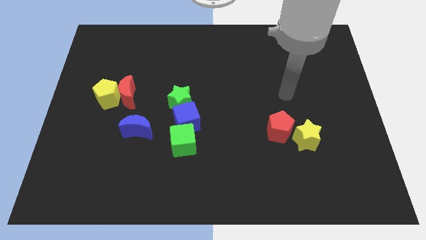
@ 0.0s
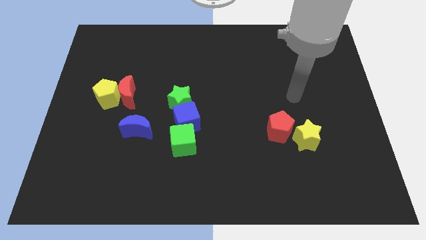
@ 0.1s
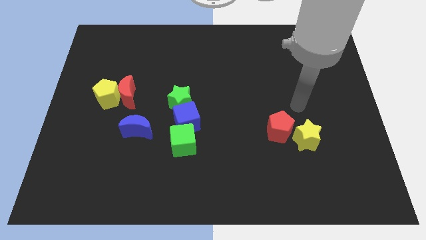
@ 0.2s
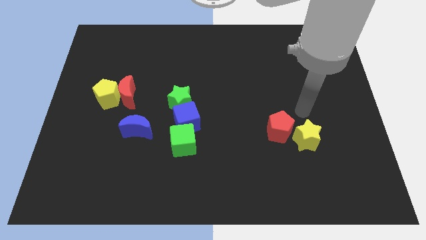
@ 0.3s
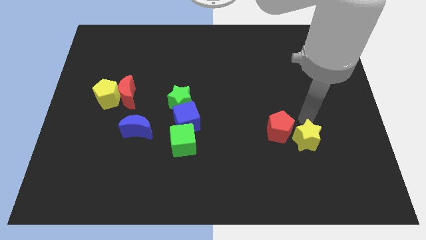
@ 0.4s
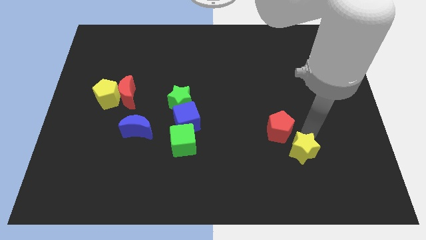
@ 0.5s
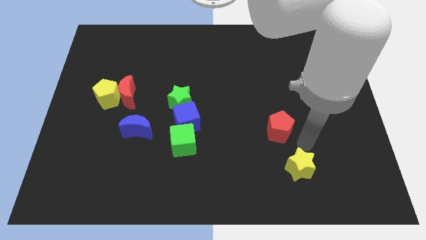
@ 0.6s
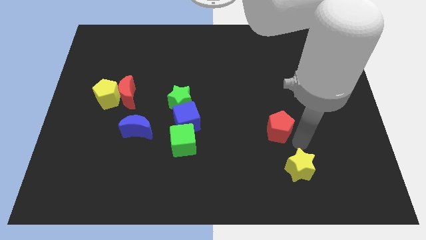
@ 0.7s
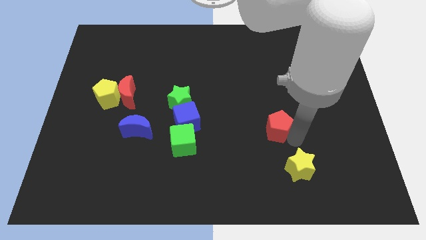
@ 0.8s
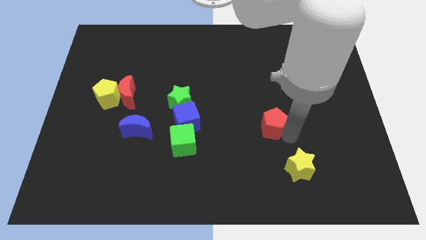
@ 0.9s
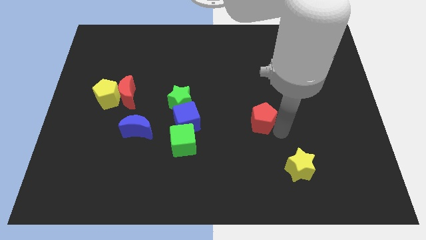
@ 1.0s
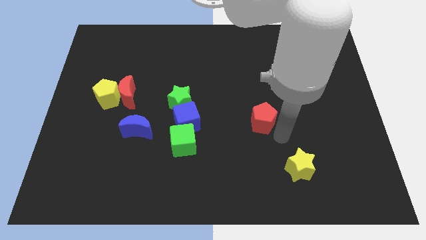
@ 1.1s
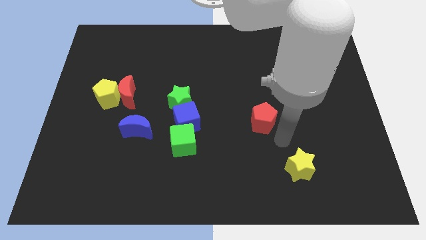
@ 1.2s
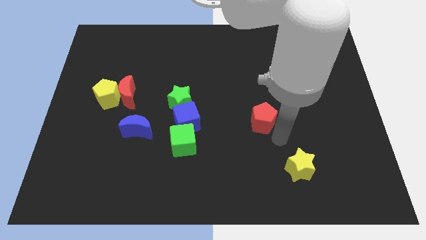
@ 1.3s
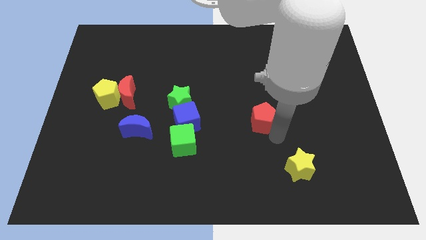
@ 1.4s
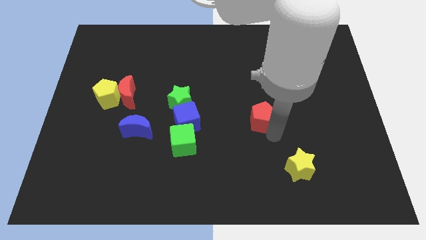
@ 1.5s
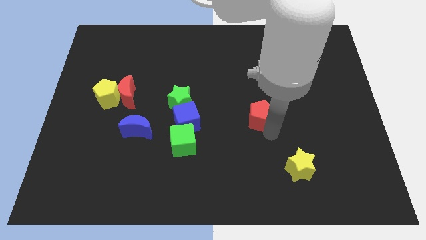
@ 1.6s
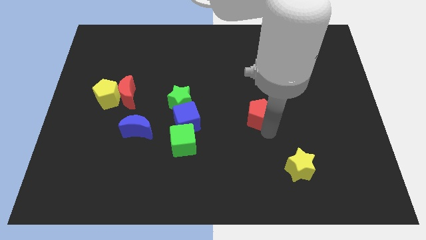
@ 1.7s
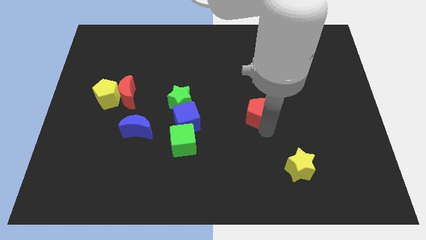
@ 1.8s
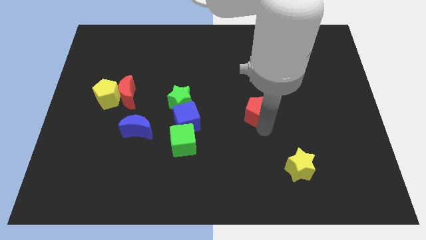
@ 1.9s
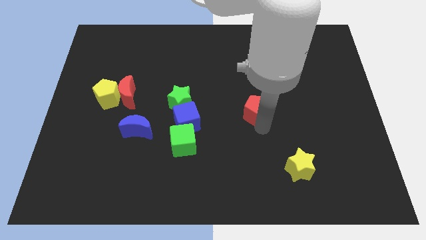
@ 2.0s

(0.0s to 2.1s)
slightly push the red pentagon diagonally up and to the left

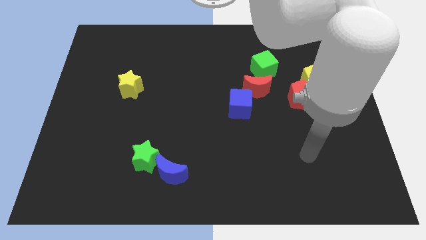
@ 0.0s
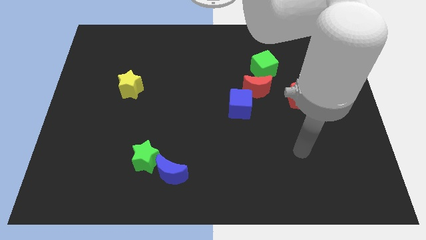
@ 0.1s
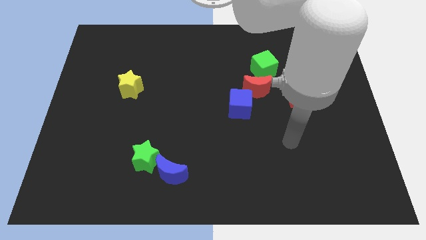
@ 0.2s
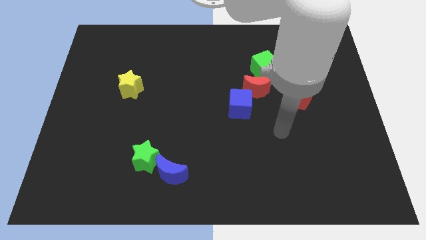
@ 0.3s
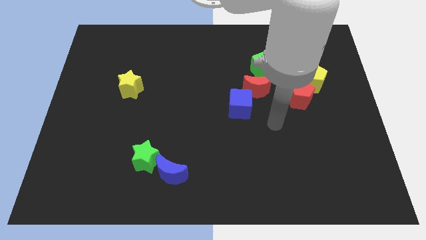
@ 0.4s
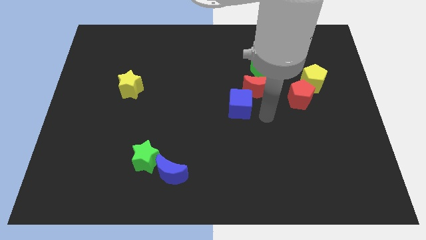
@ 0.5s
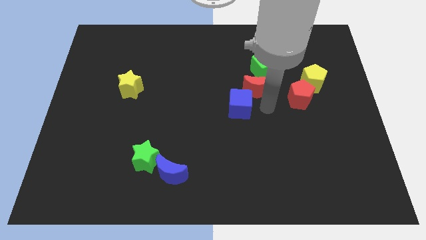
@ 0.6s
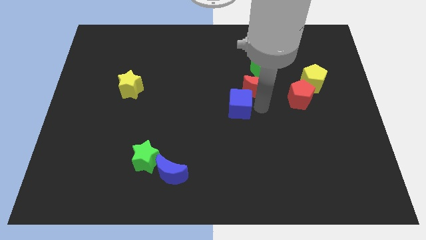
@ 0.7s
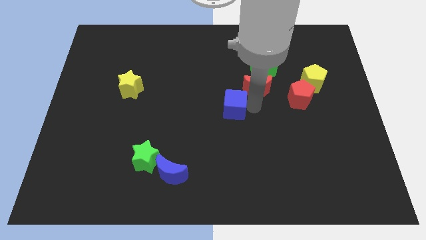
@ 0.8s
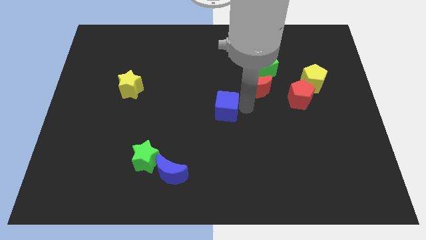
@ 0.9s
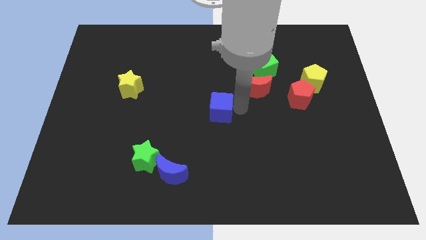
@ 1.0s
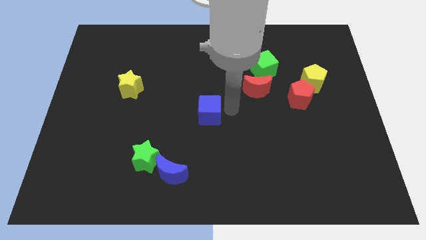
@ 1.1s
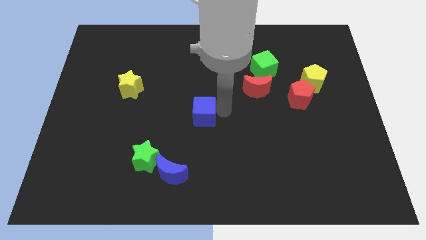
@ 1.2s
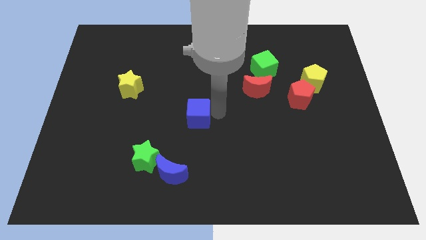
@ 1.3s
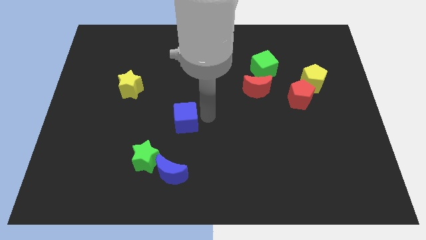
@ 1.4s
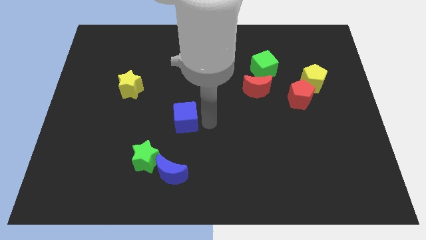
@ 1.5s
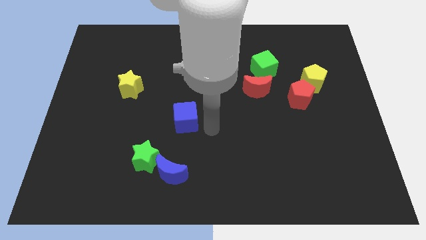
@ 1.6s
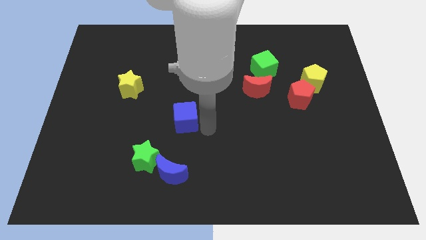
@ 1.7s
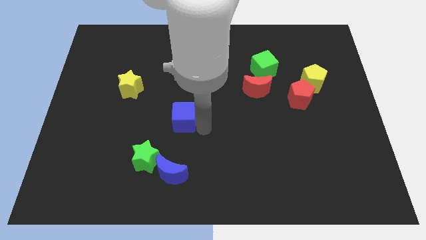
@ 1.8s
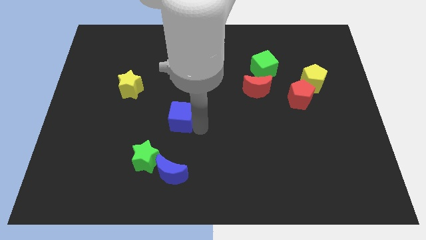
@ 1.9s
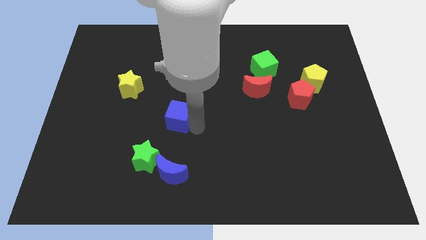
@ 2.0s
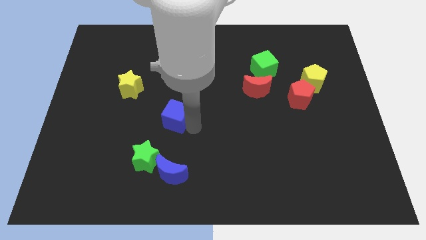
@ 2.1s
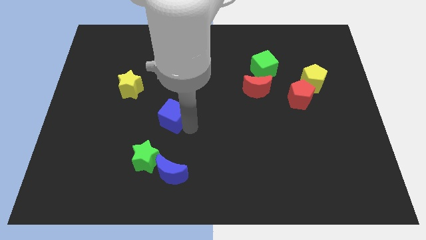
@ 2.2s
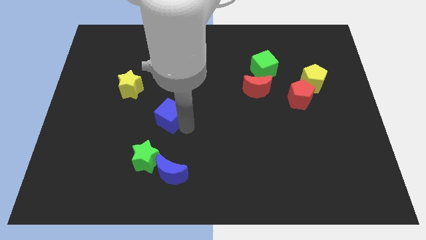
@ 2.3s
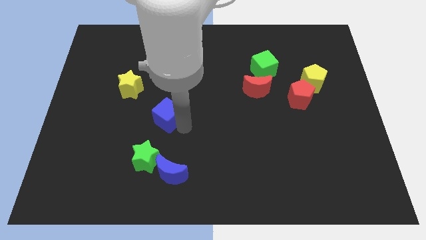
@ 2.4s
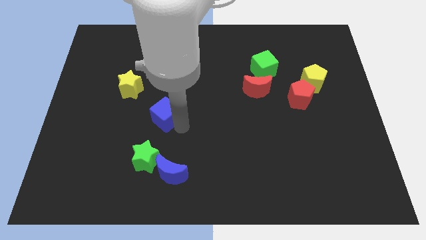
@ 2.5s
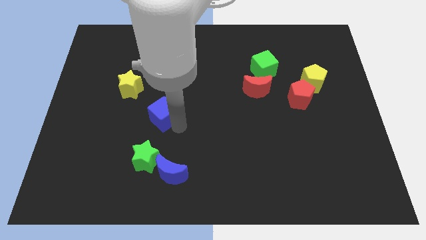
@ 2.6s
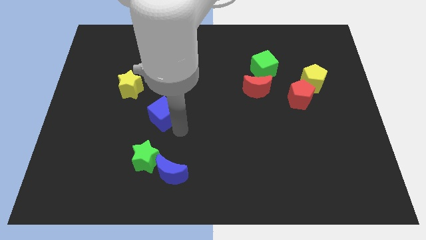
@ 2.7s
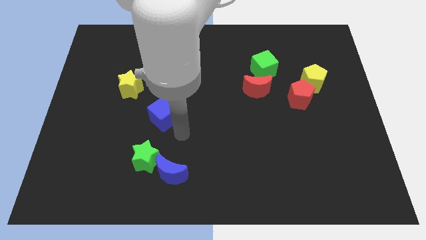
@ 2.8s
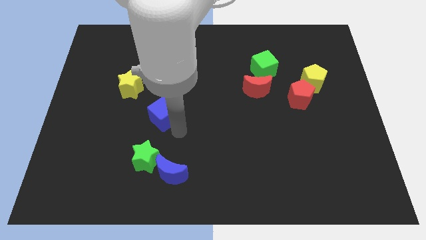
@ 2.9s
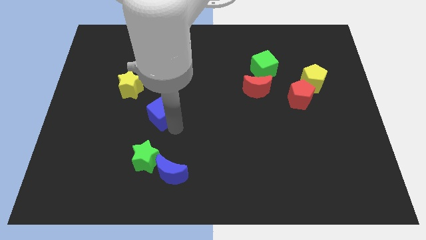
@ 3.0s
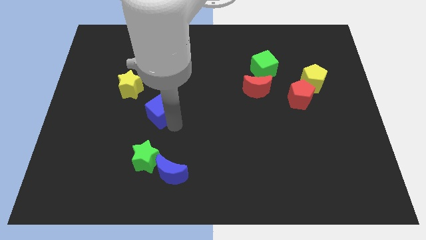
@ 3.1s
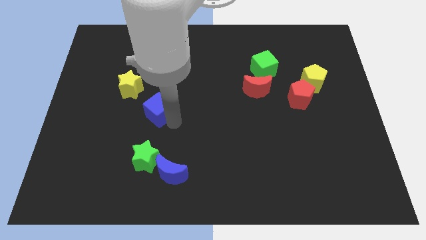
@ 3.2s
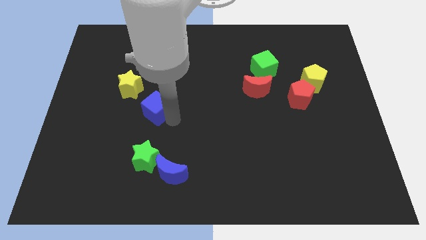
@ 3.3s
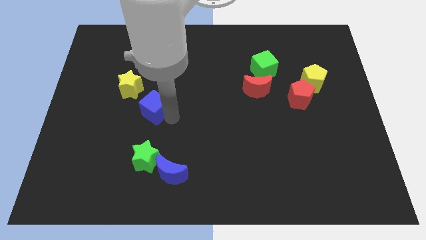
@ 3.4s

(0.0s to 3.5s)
move the blue cube left

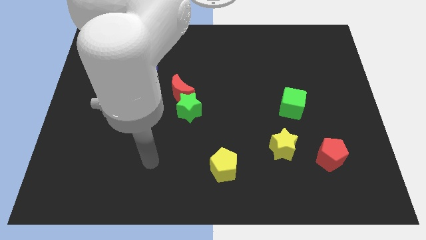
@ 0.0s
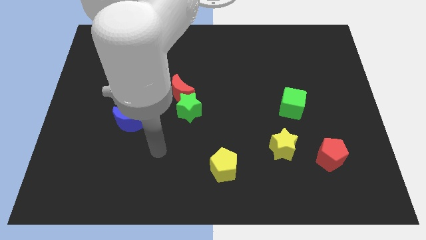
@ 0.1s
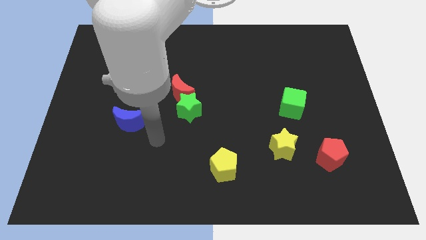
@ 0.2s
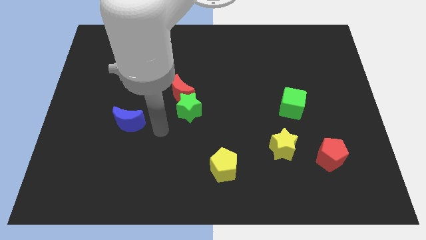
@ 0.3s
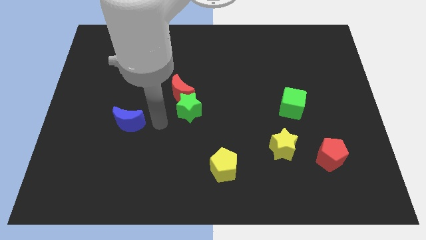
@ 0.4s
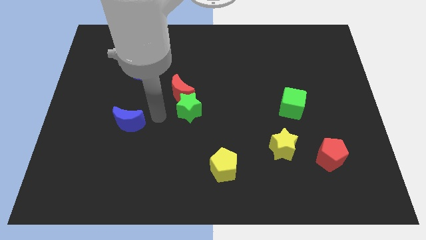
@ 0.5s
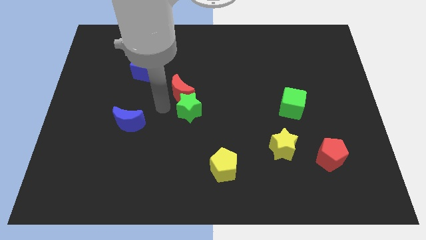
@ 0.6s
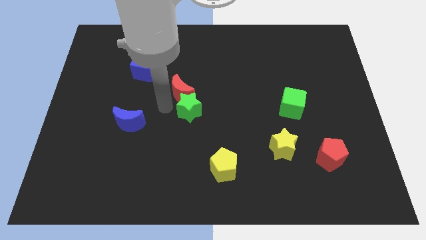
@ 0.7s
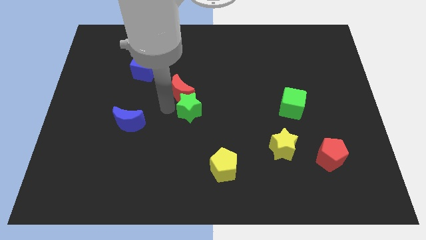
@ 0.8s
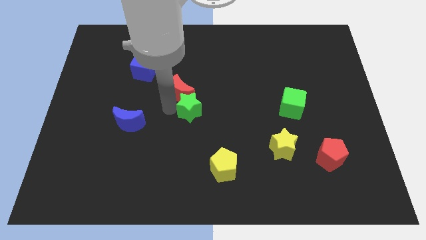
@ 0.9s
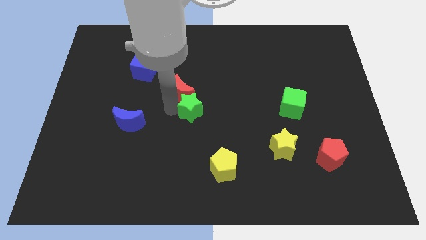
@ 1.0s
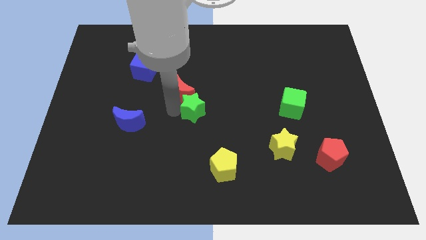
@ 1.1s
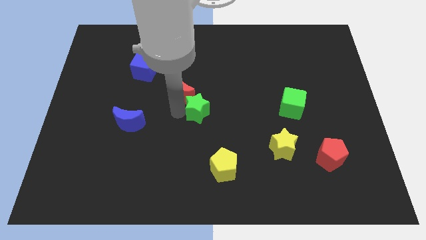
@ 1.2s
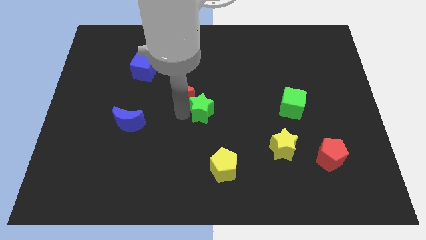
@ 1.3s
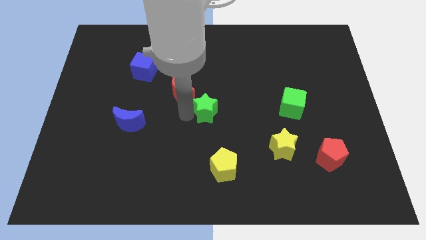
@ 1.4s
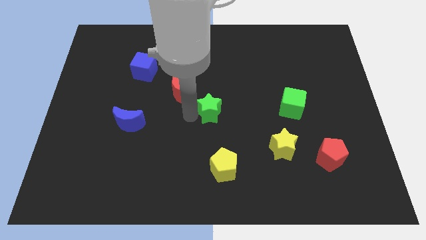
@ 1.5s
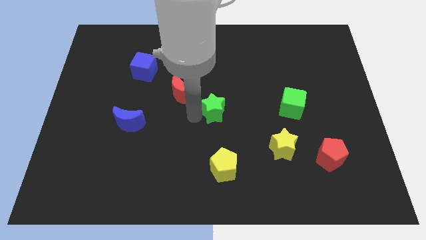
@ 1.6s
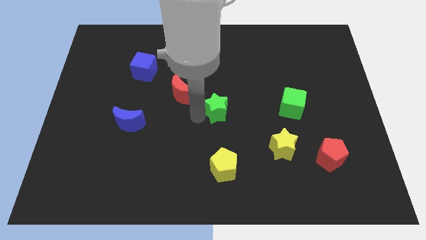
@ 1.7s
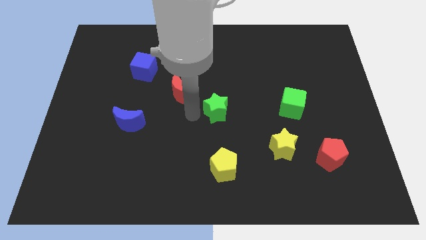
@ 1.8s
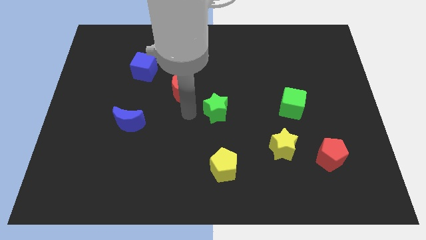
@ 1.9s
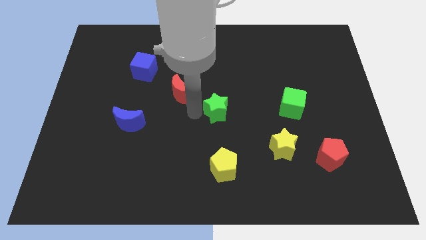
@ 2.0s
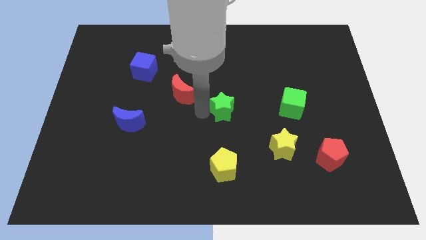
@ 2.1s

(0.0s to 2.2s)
slide the green star to the right slightly

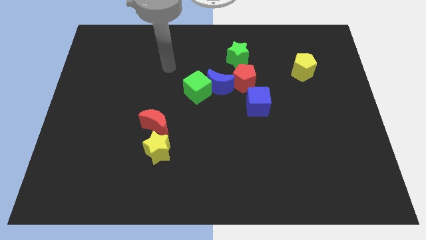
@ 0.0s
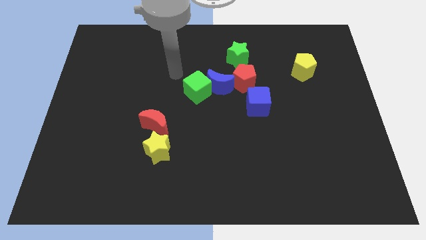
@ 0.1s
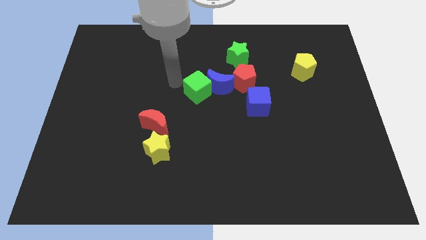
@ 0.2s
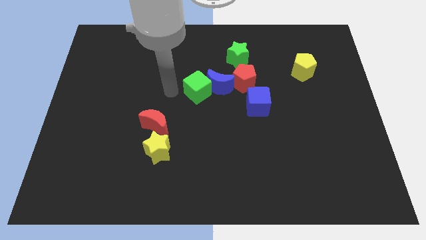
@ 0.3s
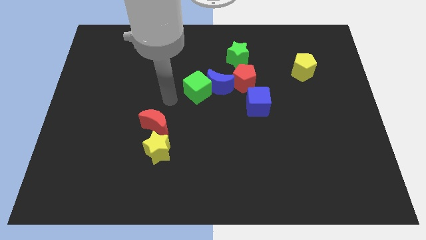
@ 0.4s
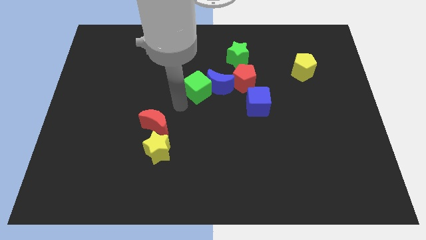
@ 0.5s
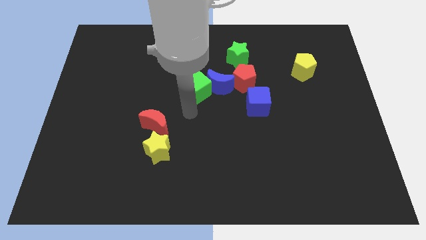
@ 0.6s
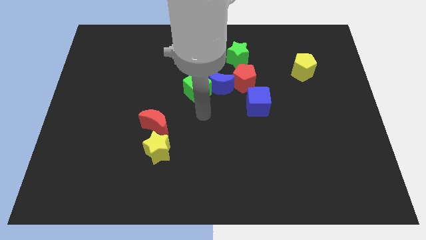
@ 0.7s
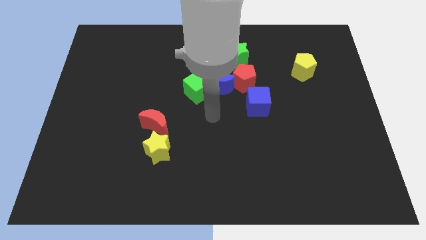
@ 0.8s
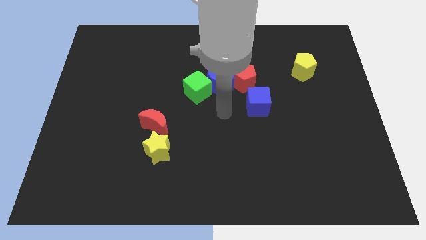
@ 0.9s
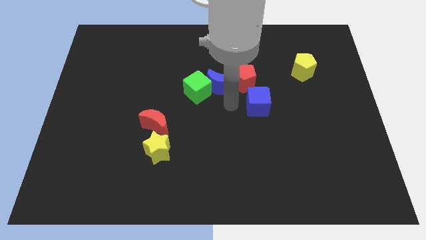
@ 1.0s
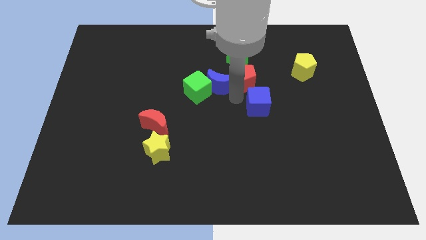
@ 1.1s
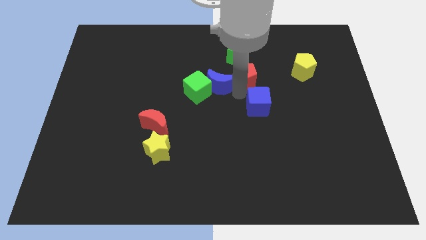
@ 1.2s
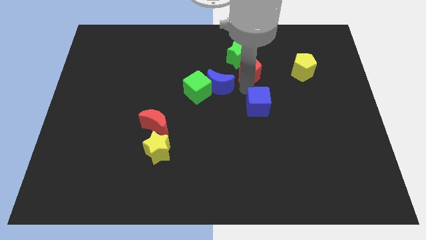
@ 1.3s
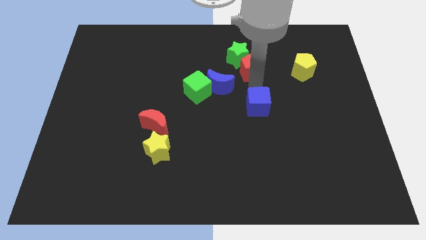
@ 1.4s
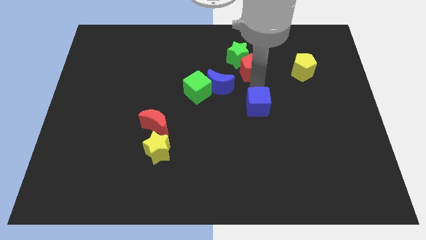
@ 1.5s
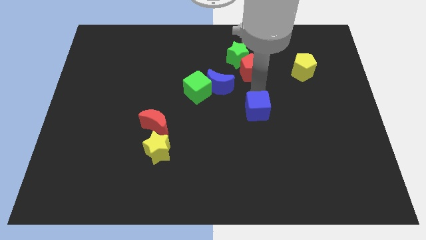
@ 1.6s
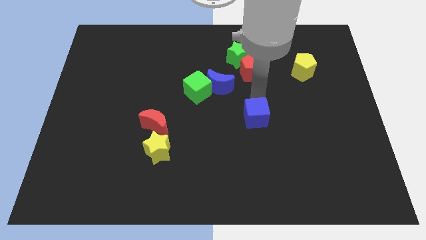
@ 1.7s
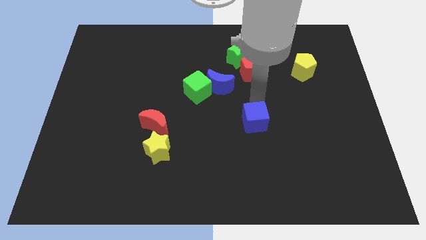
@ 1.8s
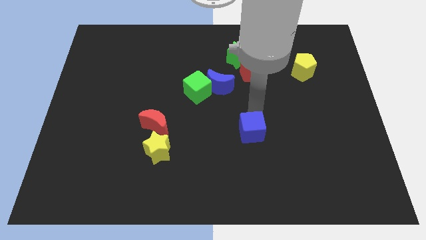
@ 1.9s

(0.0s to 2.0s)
move the blue cube slightly downwards
